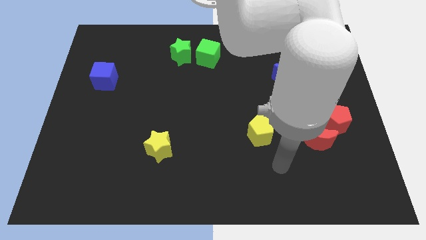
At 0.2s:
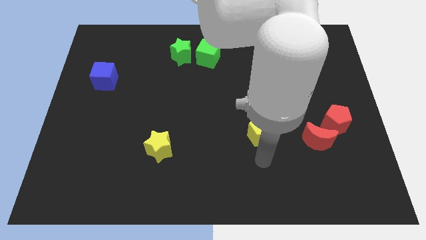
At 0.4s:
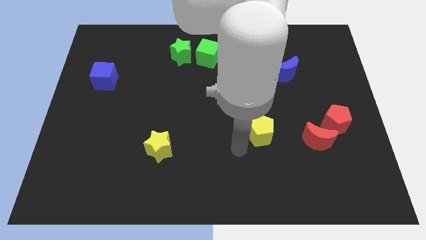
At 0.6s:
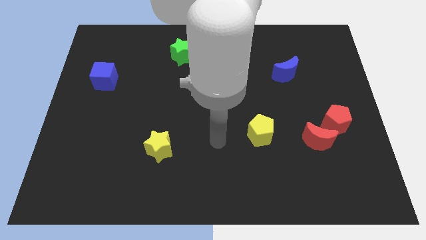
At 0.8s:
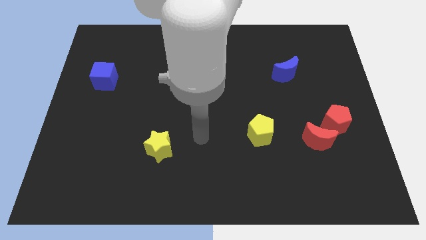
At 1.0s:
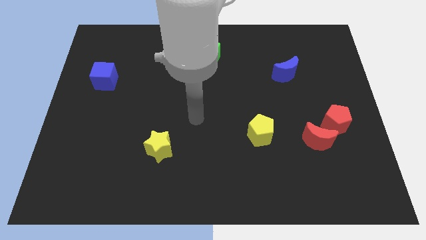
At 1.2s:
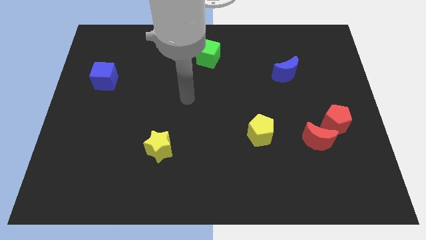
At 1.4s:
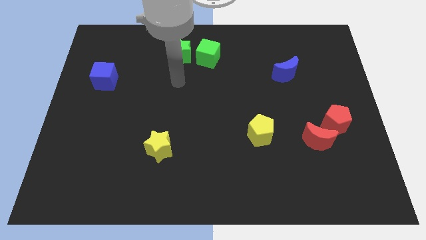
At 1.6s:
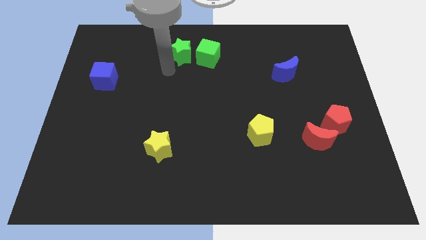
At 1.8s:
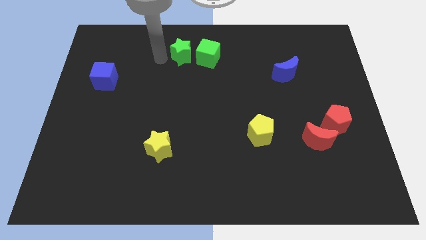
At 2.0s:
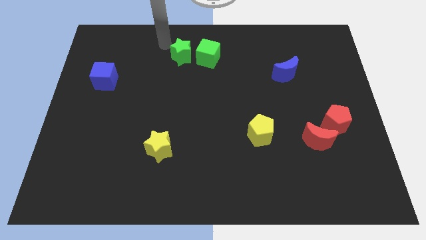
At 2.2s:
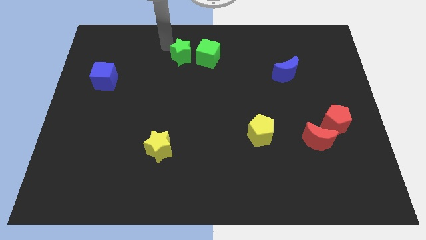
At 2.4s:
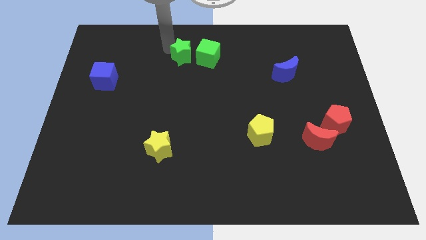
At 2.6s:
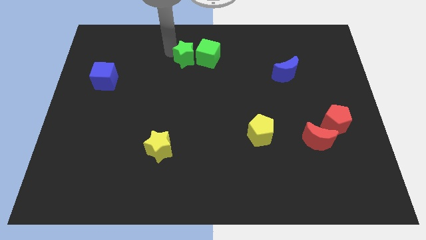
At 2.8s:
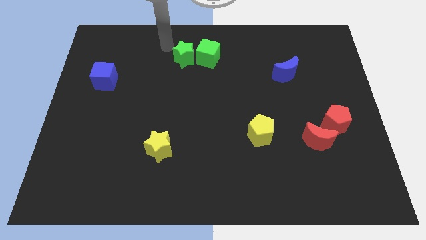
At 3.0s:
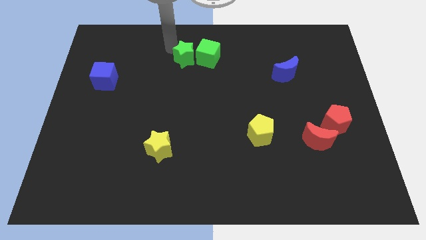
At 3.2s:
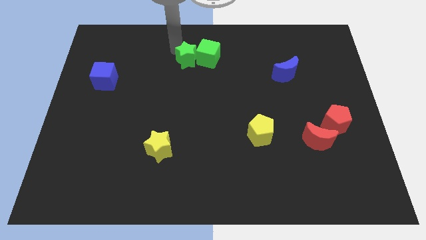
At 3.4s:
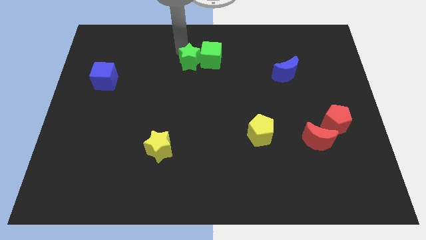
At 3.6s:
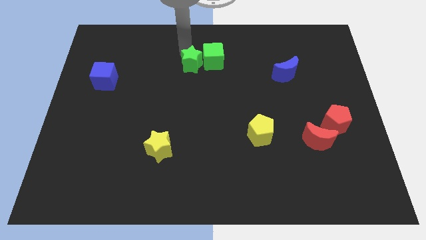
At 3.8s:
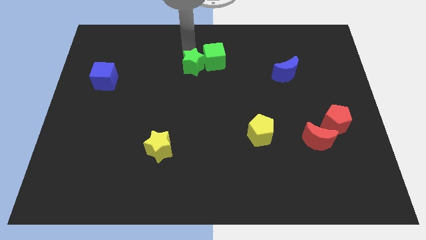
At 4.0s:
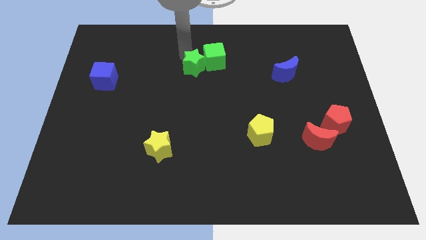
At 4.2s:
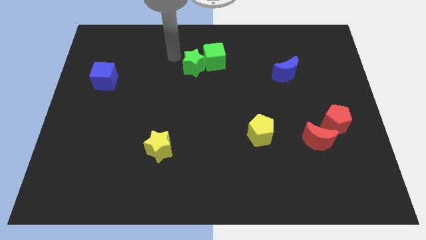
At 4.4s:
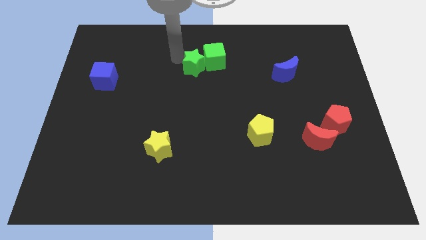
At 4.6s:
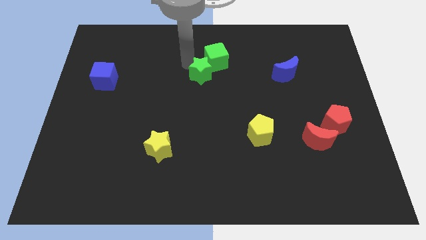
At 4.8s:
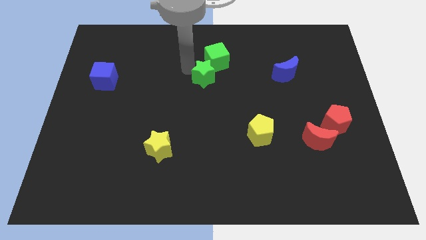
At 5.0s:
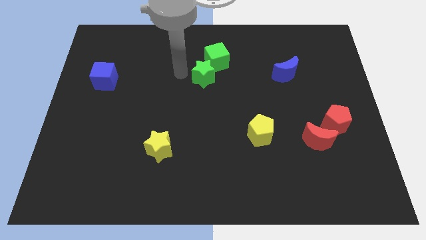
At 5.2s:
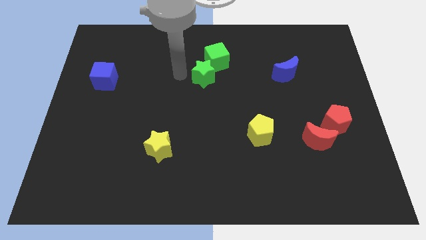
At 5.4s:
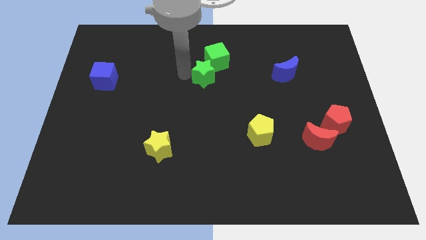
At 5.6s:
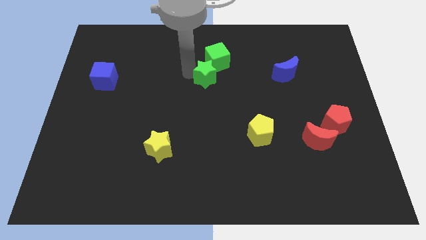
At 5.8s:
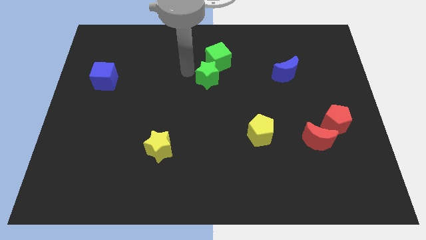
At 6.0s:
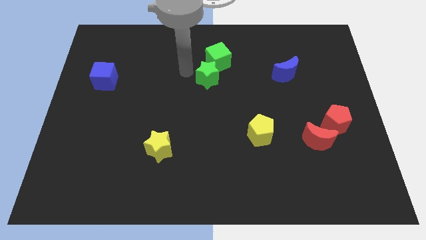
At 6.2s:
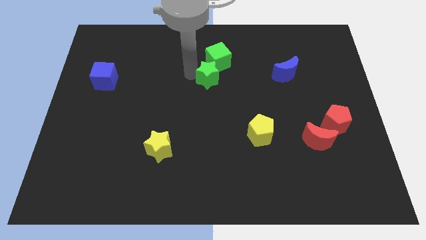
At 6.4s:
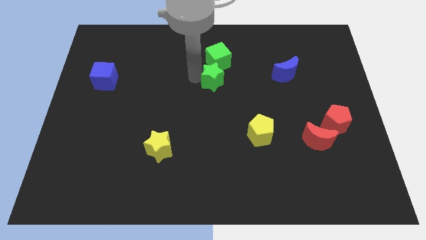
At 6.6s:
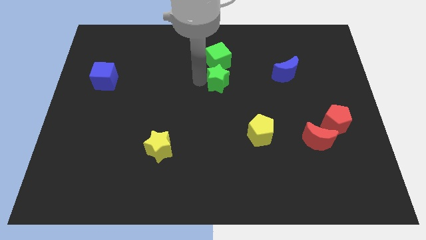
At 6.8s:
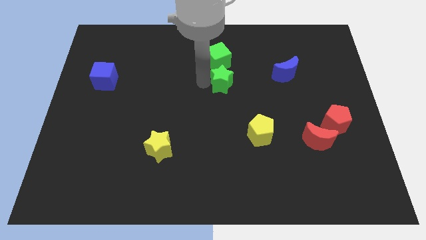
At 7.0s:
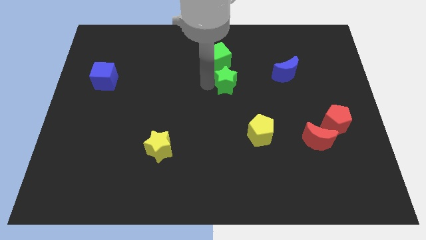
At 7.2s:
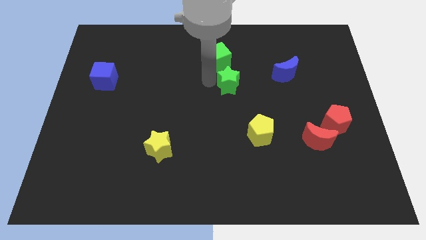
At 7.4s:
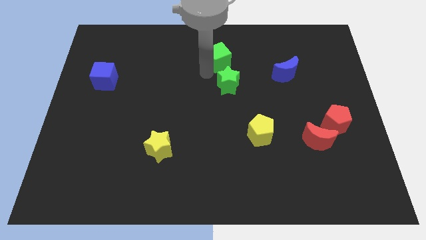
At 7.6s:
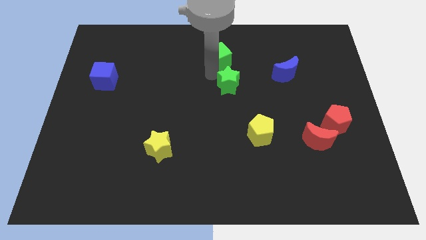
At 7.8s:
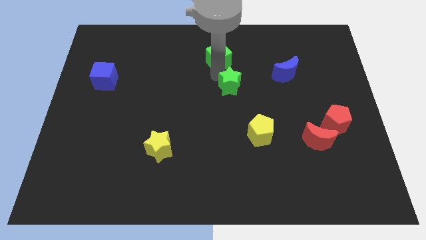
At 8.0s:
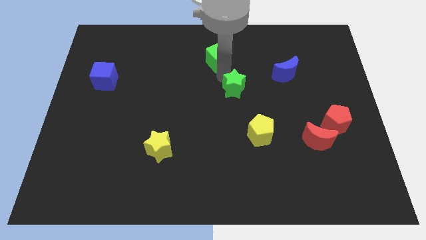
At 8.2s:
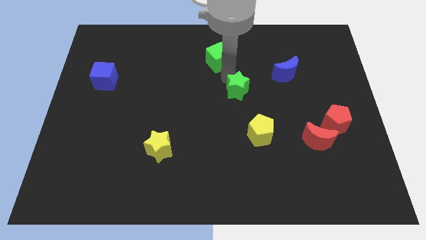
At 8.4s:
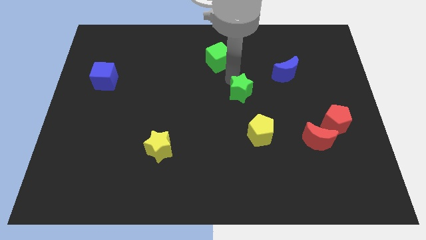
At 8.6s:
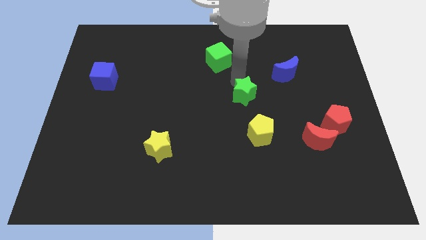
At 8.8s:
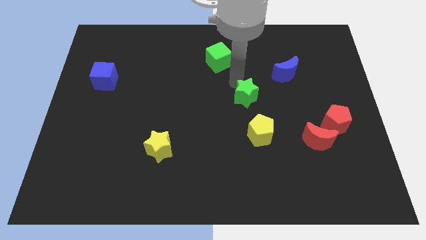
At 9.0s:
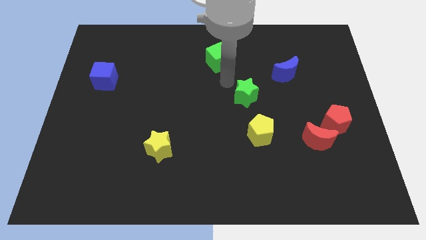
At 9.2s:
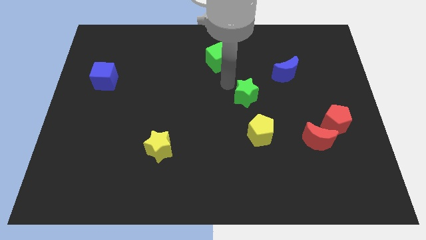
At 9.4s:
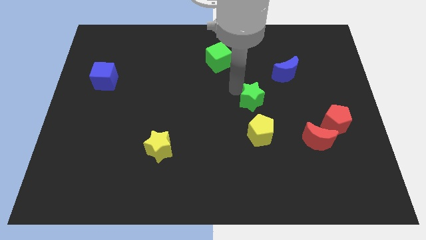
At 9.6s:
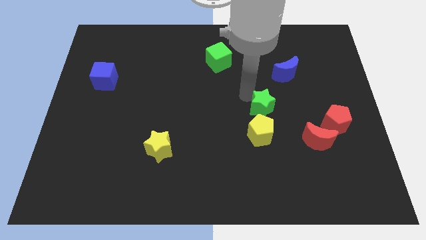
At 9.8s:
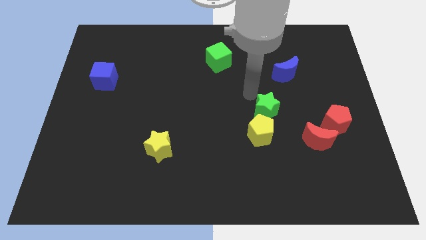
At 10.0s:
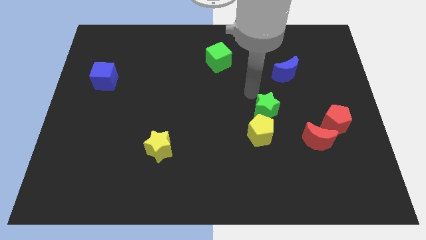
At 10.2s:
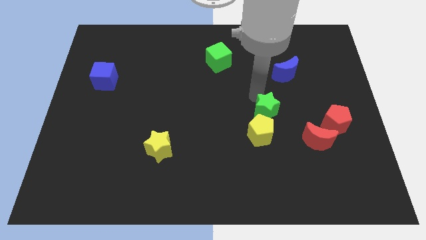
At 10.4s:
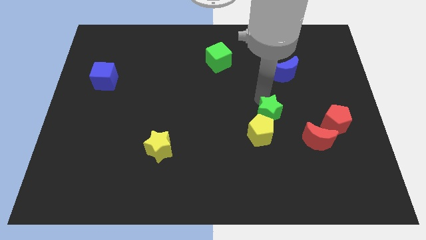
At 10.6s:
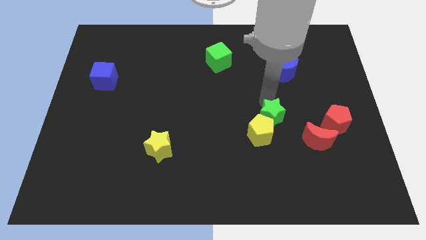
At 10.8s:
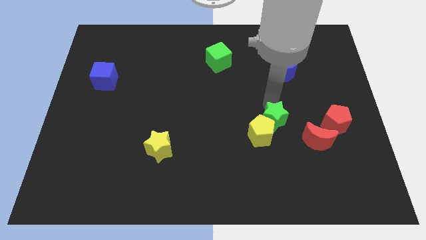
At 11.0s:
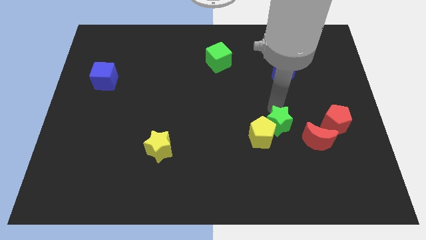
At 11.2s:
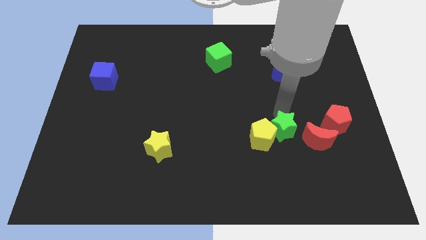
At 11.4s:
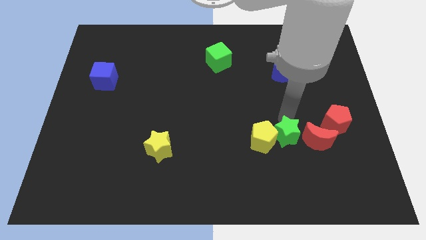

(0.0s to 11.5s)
push the green star to the bottom right of the yellow pentagon

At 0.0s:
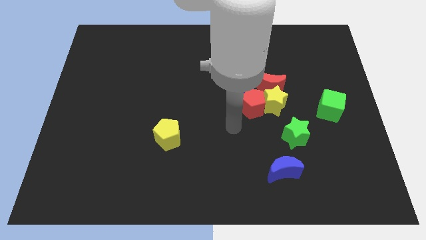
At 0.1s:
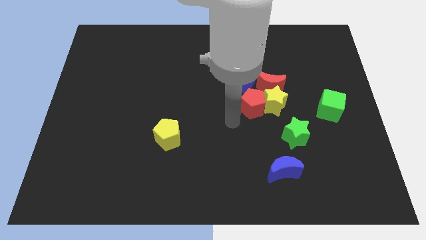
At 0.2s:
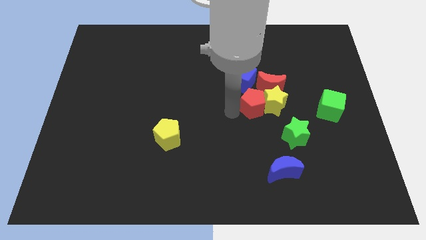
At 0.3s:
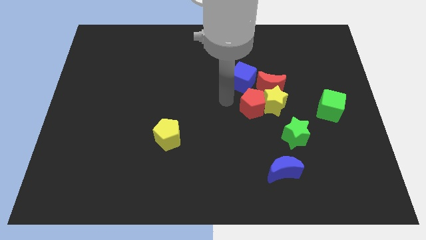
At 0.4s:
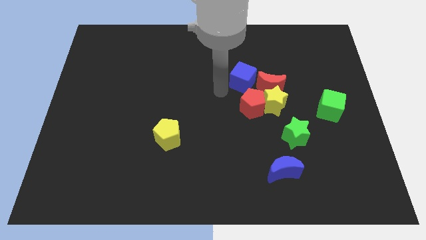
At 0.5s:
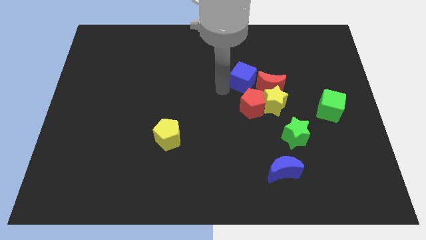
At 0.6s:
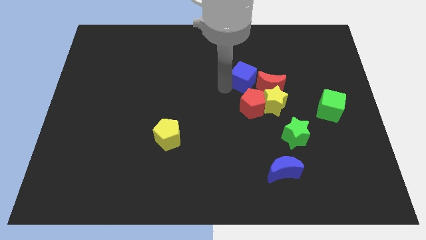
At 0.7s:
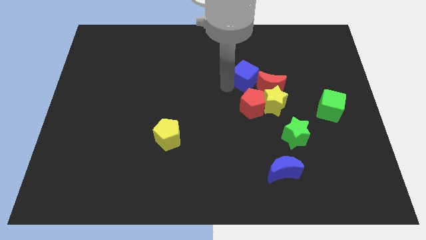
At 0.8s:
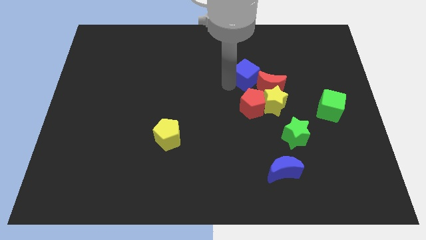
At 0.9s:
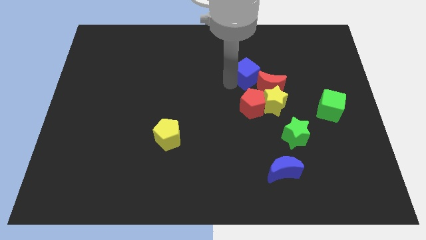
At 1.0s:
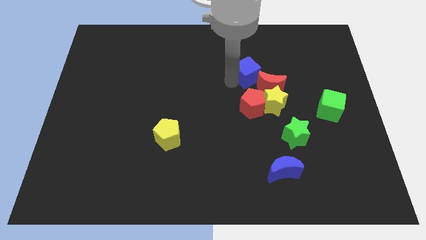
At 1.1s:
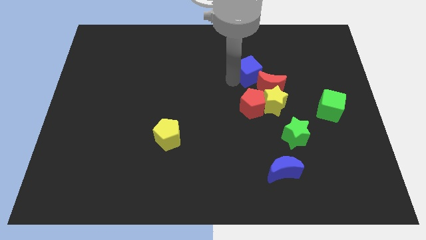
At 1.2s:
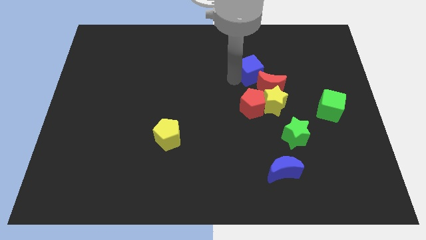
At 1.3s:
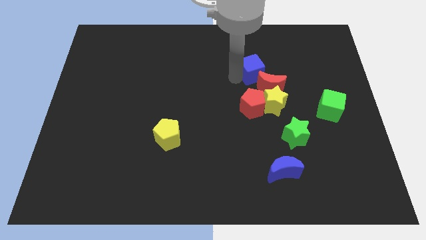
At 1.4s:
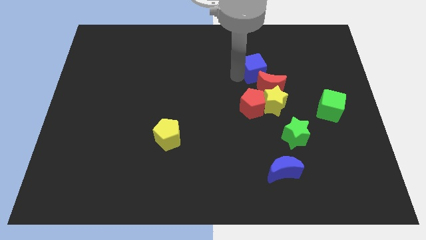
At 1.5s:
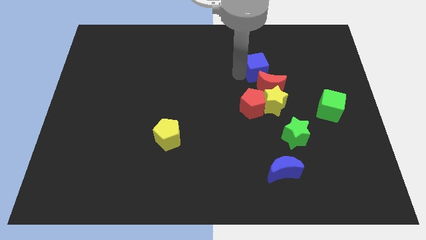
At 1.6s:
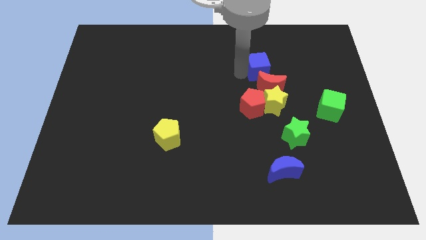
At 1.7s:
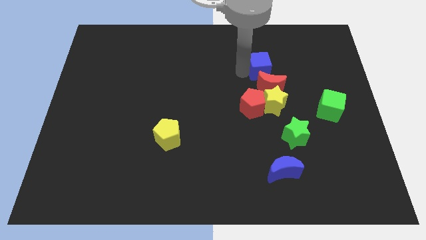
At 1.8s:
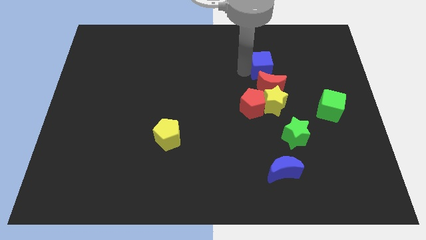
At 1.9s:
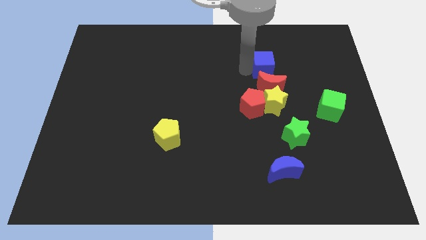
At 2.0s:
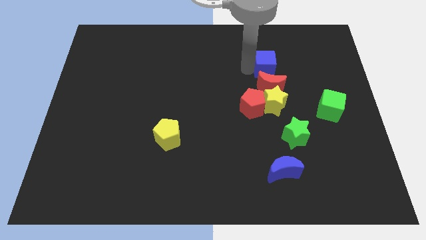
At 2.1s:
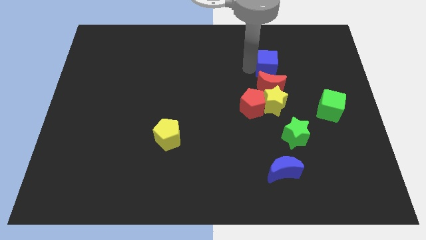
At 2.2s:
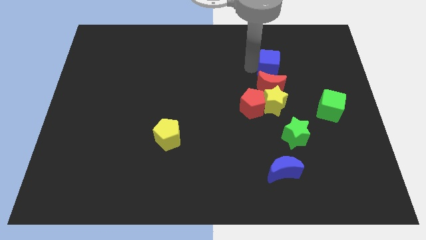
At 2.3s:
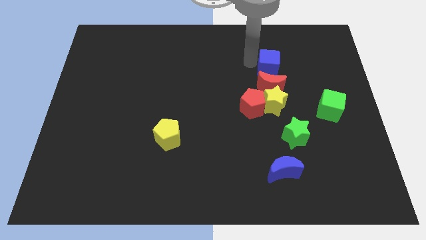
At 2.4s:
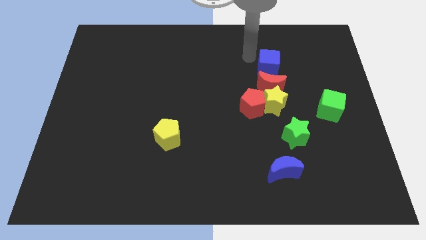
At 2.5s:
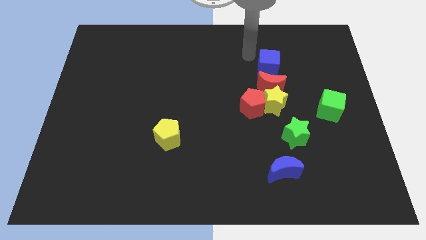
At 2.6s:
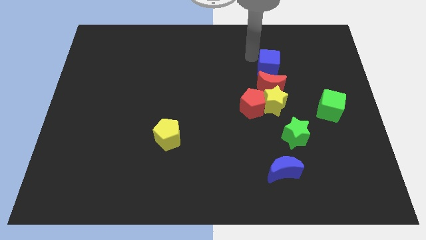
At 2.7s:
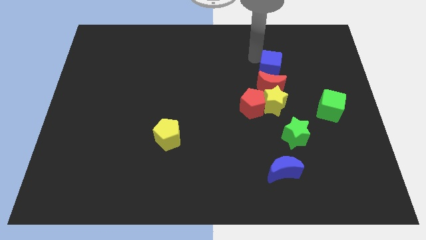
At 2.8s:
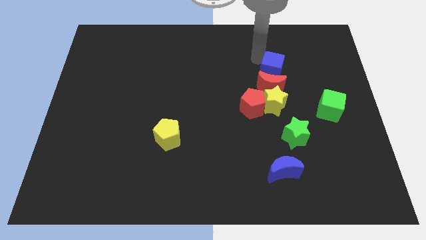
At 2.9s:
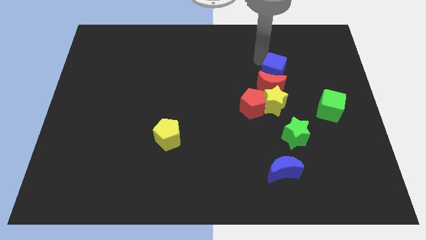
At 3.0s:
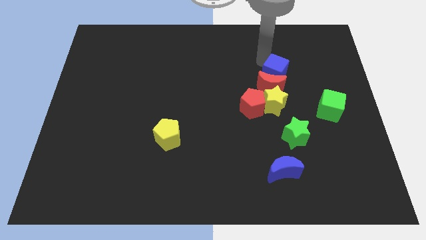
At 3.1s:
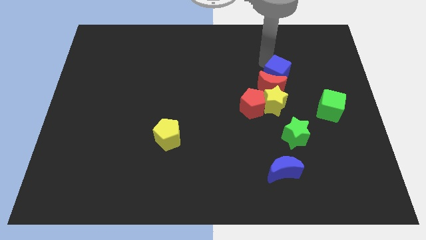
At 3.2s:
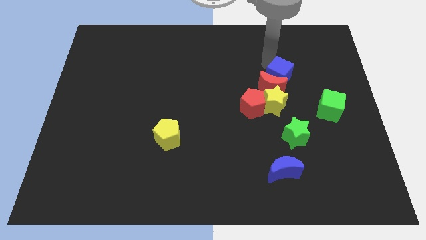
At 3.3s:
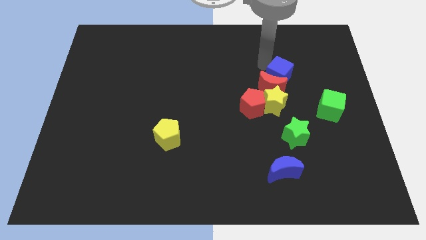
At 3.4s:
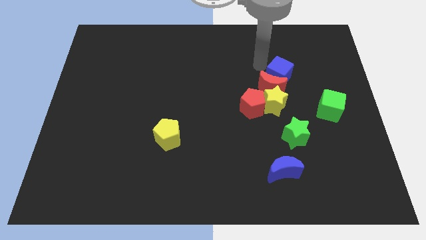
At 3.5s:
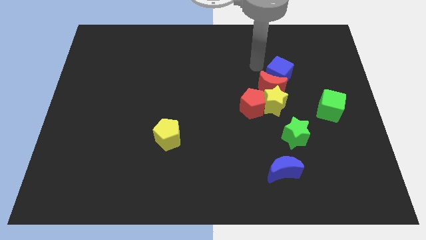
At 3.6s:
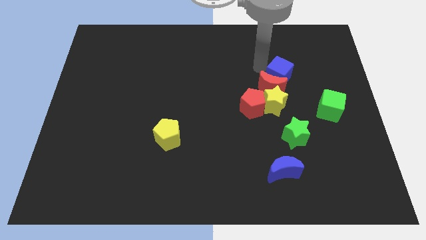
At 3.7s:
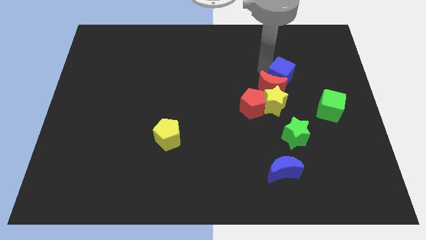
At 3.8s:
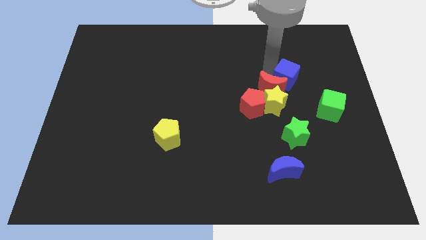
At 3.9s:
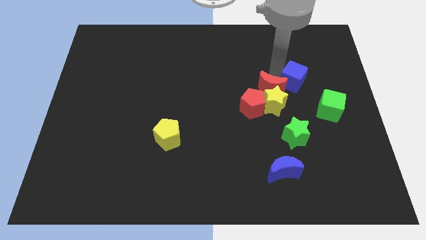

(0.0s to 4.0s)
put the blue cube to the top left side of the green cube
